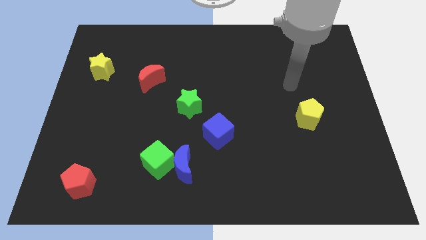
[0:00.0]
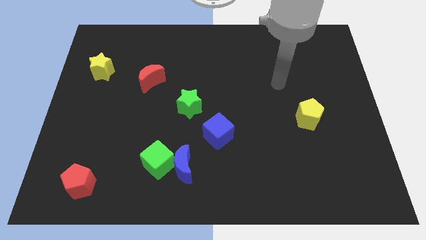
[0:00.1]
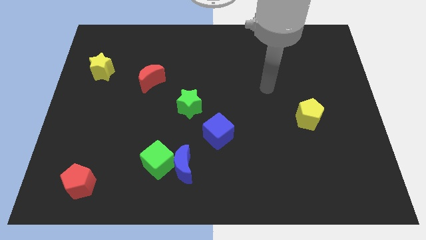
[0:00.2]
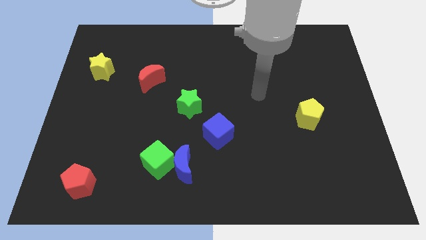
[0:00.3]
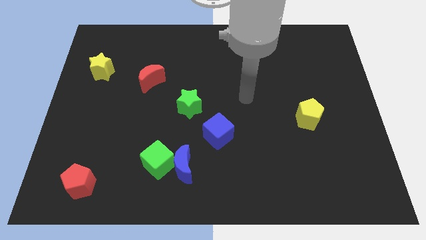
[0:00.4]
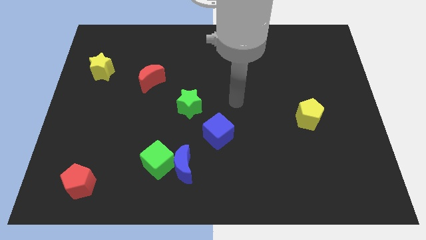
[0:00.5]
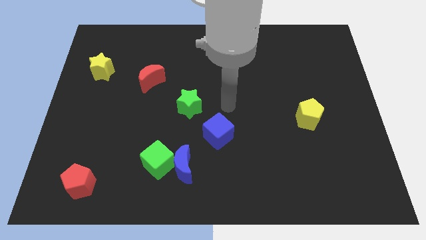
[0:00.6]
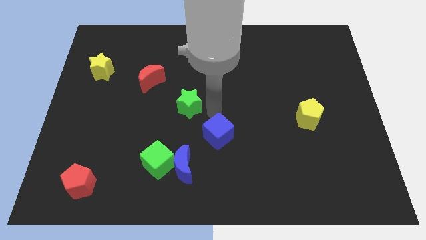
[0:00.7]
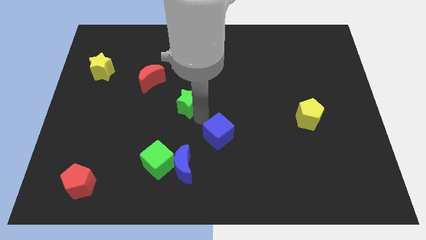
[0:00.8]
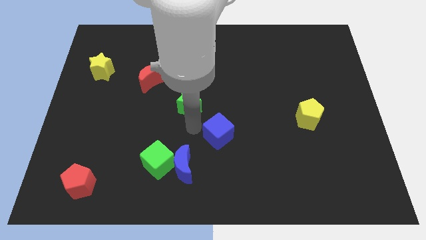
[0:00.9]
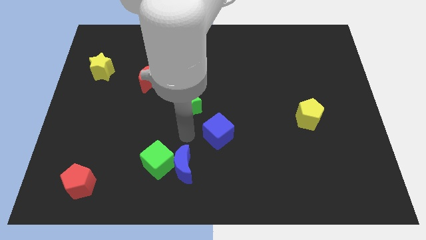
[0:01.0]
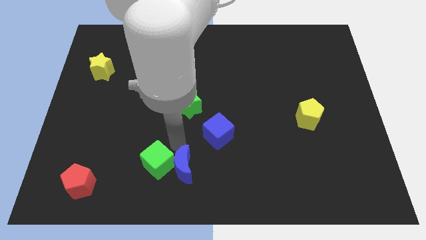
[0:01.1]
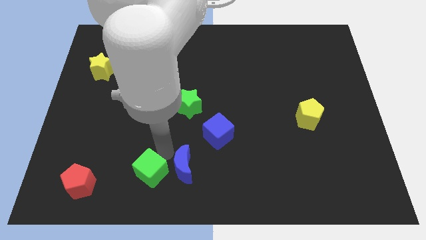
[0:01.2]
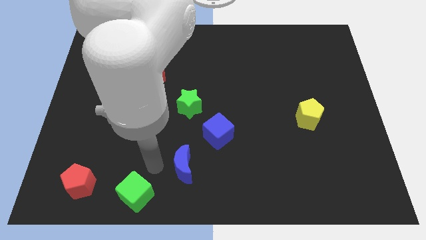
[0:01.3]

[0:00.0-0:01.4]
move the blue moon away from the green cube

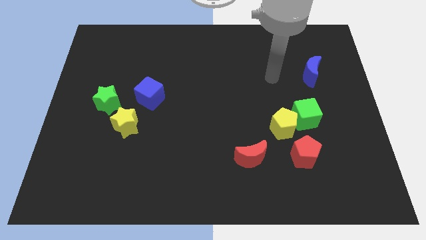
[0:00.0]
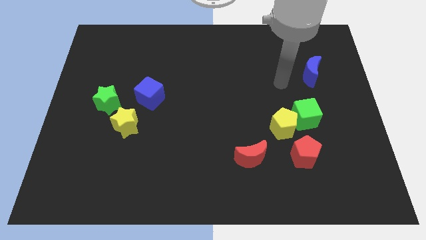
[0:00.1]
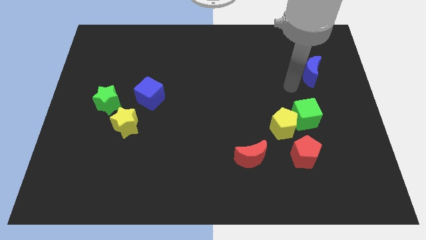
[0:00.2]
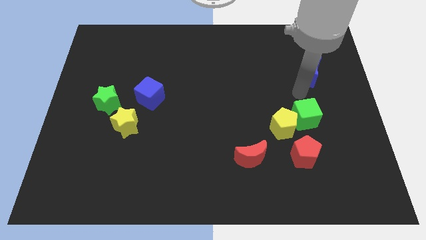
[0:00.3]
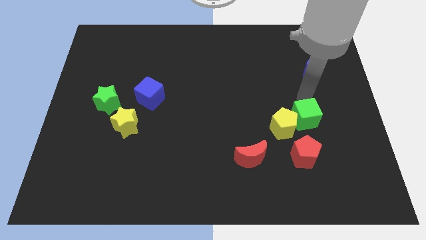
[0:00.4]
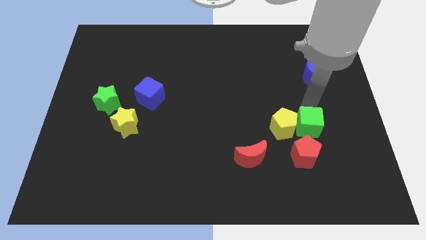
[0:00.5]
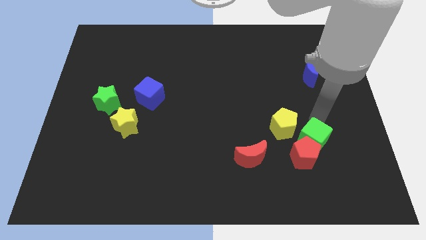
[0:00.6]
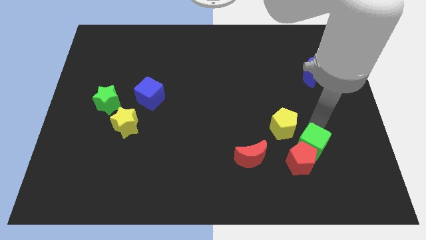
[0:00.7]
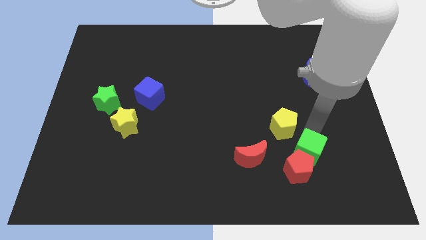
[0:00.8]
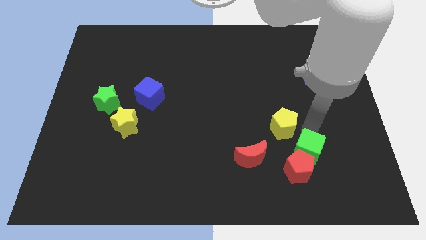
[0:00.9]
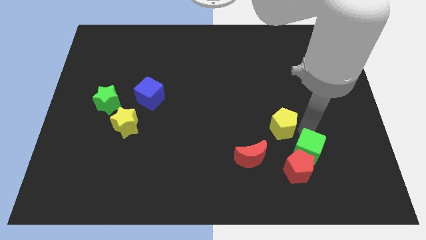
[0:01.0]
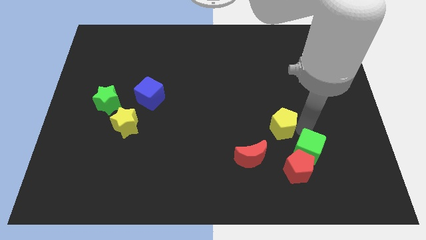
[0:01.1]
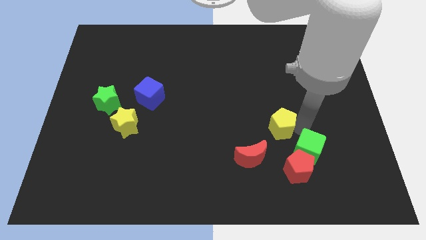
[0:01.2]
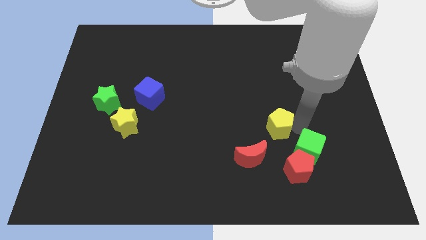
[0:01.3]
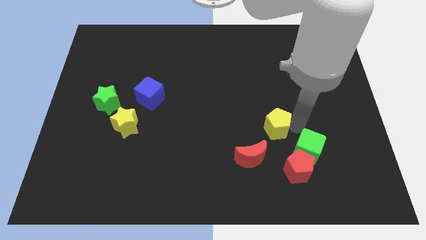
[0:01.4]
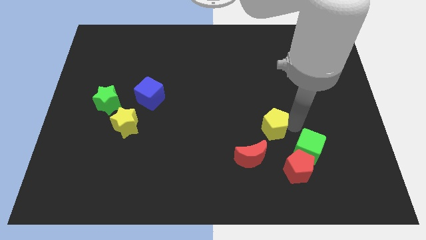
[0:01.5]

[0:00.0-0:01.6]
pull the yellow pentagon apart from the green cube and red pentagon

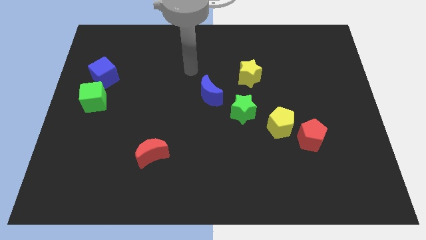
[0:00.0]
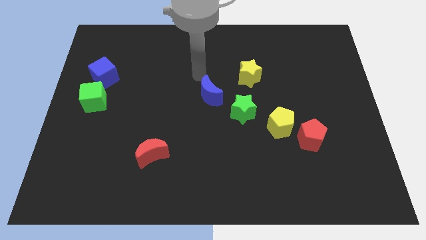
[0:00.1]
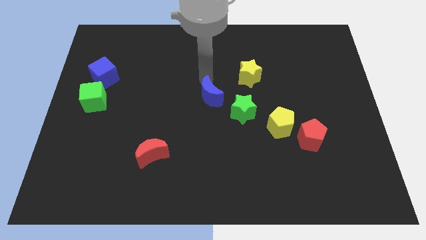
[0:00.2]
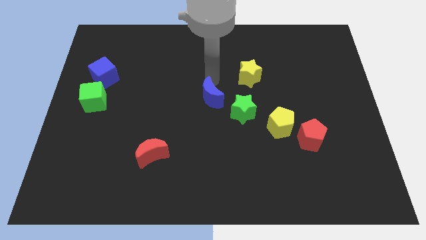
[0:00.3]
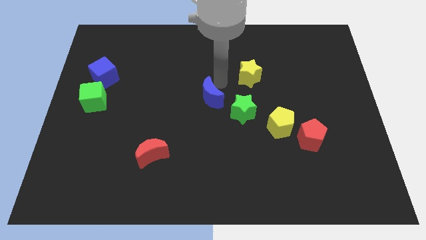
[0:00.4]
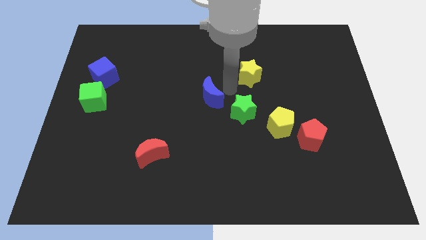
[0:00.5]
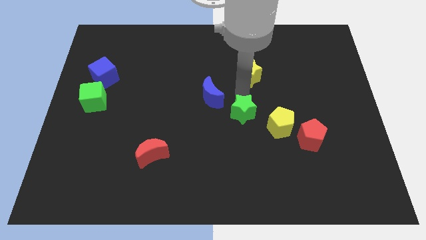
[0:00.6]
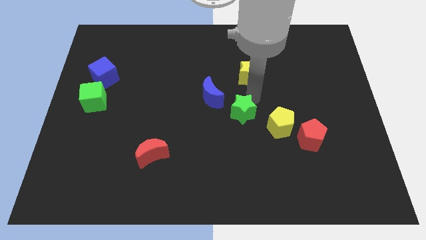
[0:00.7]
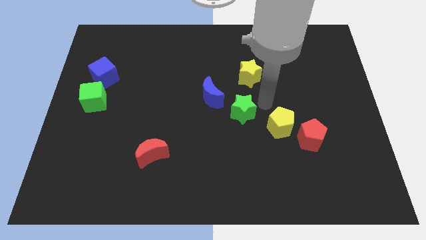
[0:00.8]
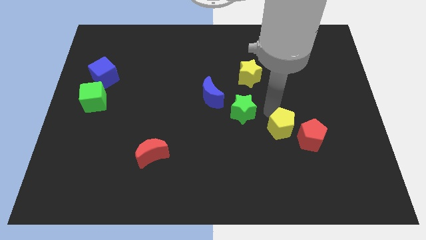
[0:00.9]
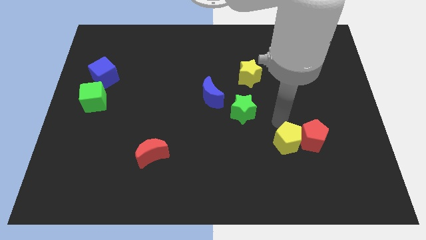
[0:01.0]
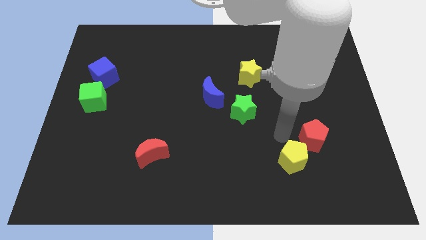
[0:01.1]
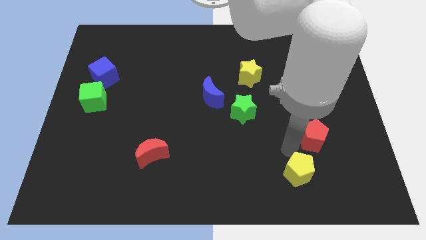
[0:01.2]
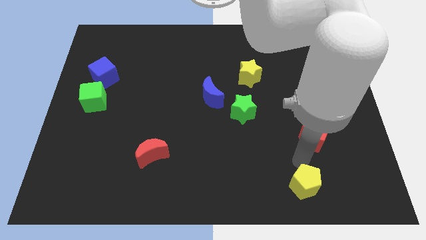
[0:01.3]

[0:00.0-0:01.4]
separate the red pentagon from the yellow pentagon

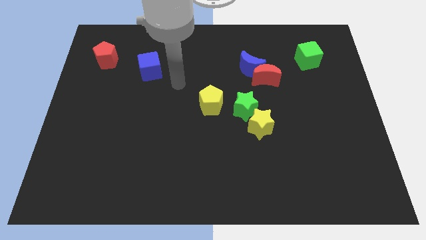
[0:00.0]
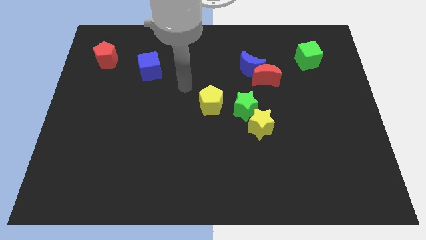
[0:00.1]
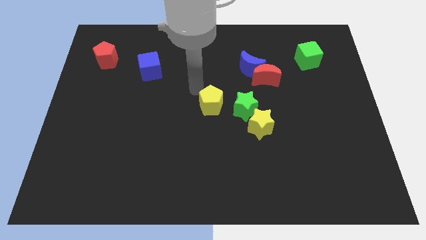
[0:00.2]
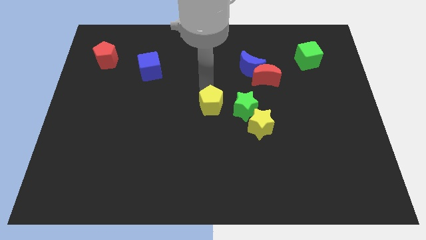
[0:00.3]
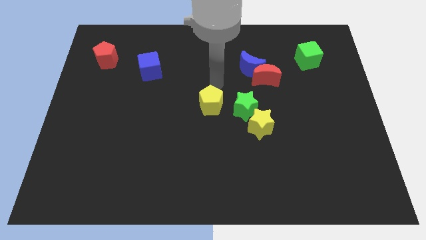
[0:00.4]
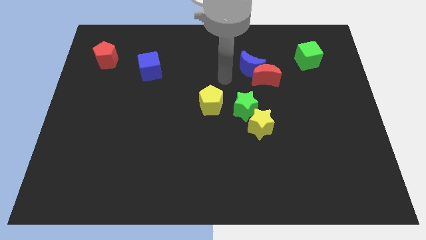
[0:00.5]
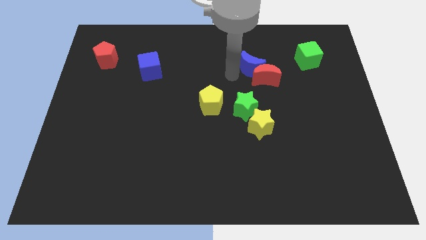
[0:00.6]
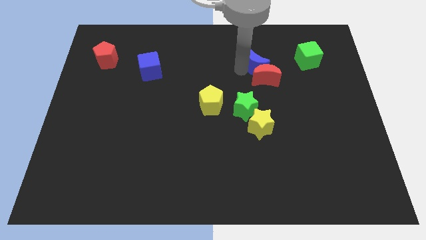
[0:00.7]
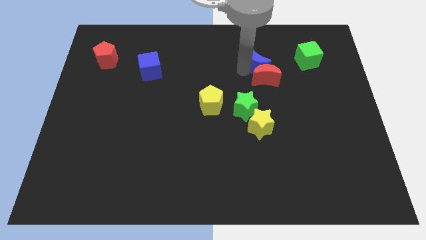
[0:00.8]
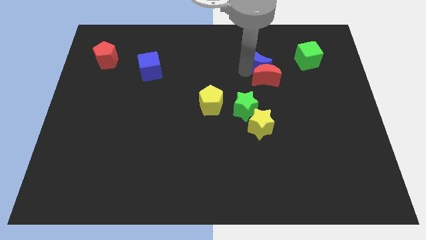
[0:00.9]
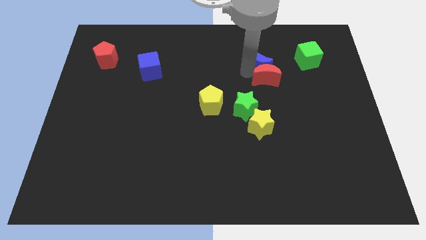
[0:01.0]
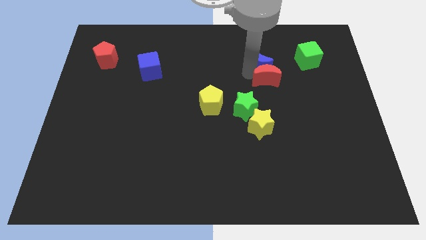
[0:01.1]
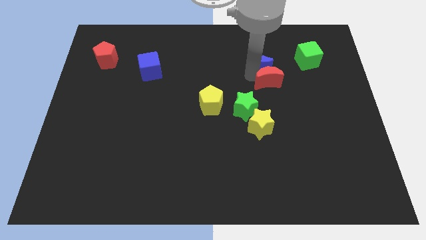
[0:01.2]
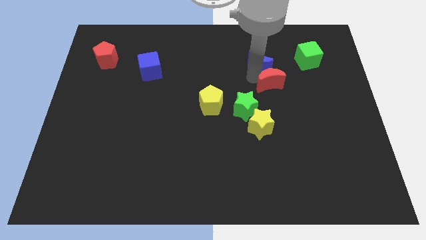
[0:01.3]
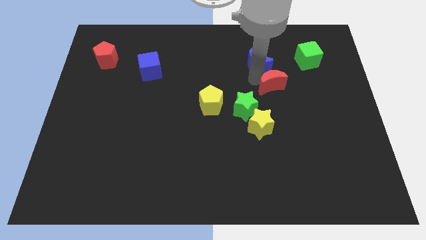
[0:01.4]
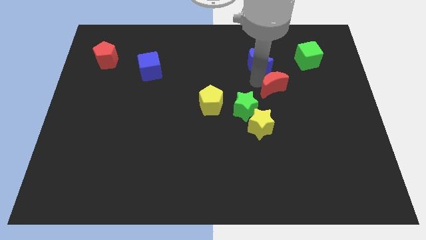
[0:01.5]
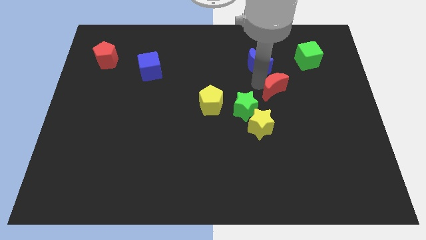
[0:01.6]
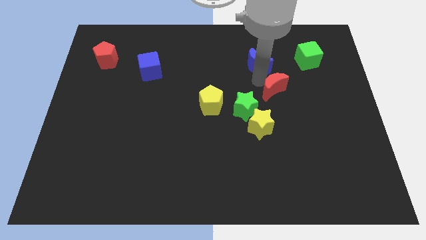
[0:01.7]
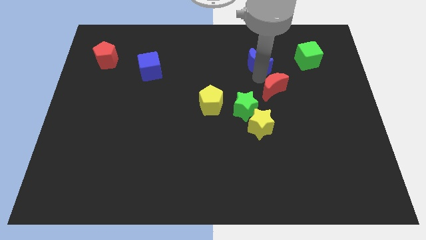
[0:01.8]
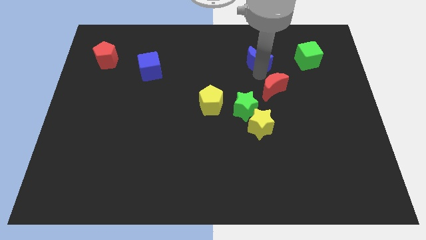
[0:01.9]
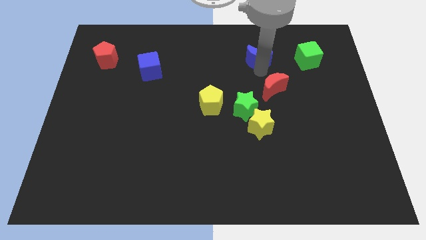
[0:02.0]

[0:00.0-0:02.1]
move the red moon away from the blue moon

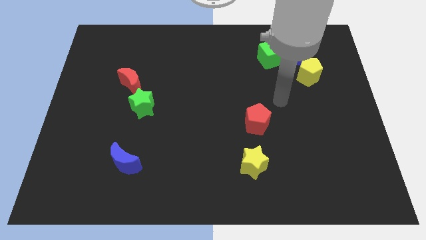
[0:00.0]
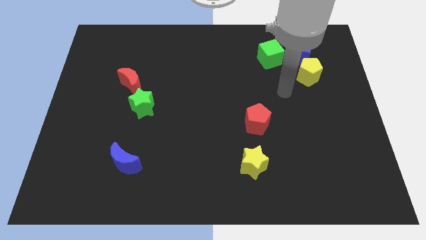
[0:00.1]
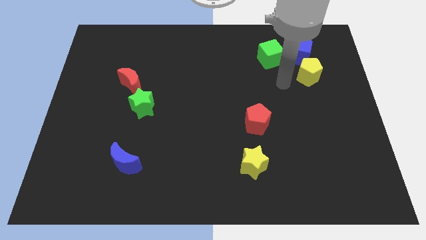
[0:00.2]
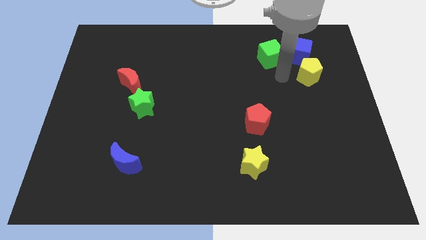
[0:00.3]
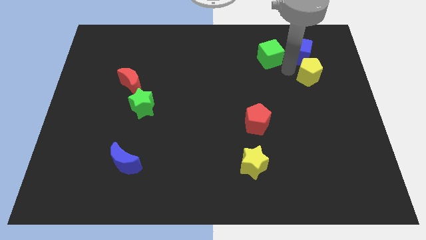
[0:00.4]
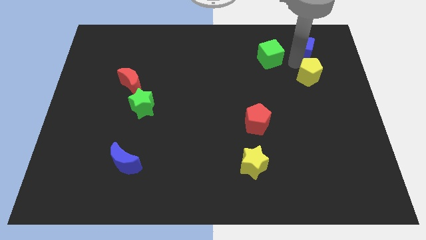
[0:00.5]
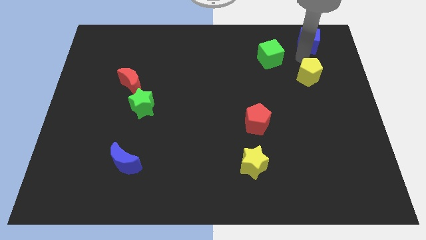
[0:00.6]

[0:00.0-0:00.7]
separate the yellow pentagon from the blue cube

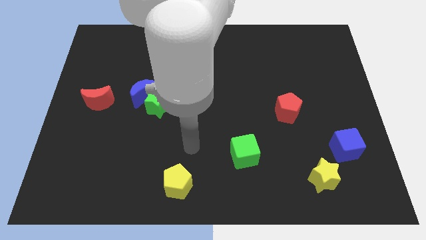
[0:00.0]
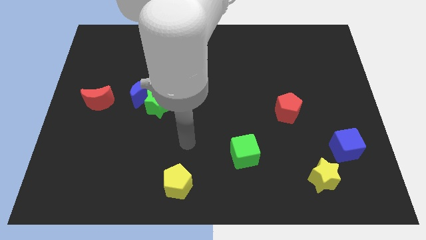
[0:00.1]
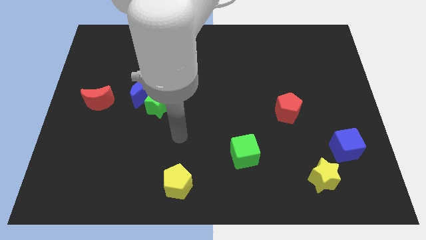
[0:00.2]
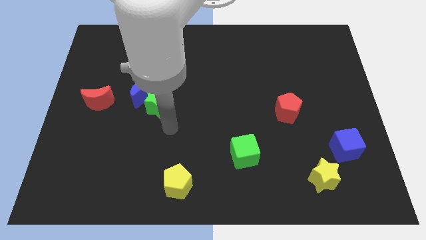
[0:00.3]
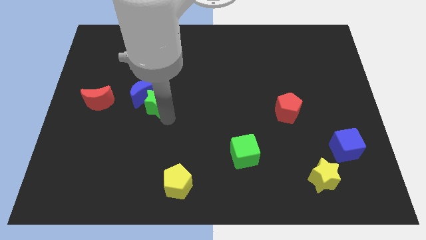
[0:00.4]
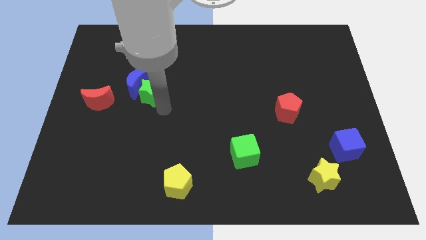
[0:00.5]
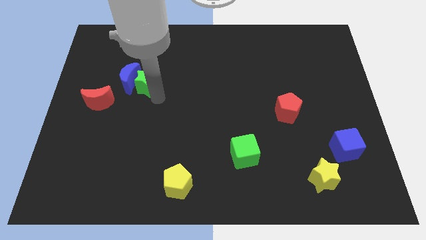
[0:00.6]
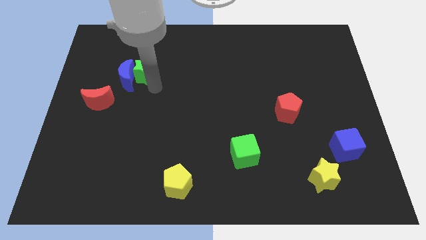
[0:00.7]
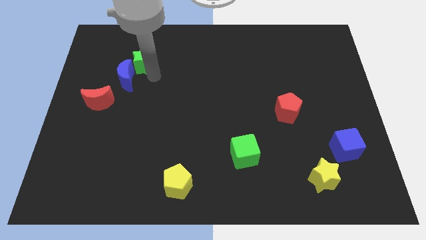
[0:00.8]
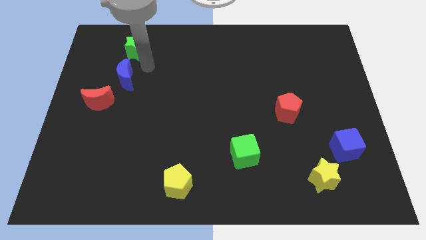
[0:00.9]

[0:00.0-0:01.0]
move the blue moon away from the green star

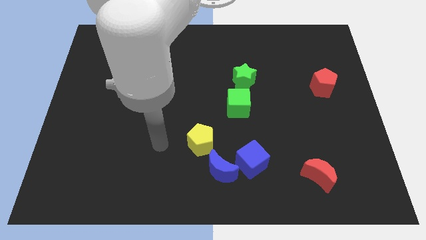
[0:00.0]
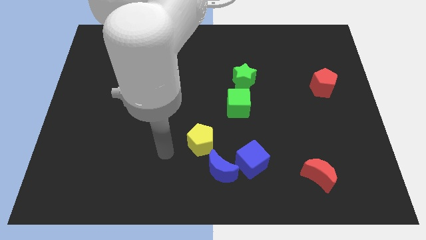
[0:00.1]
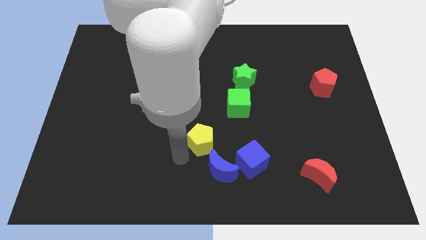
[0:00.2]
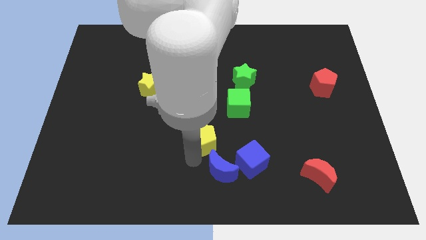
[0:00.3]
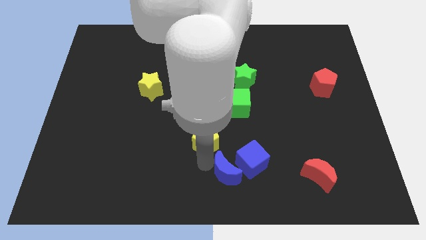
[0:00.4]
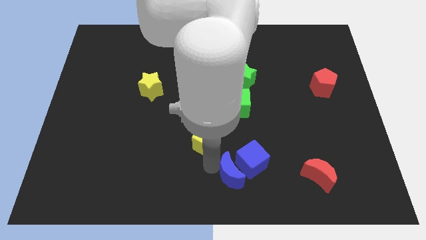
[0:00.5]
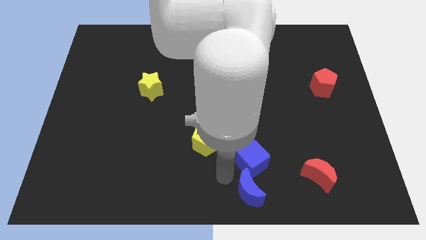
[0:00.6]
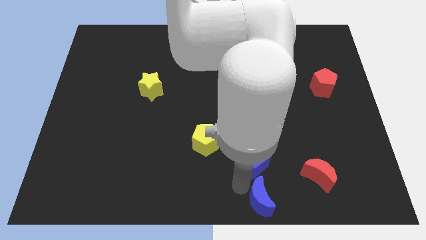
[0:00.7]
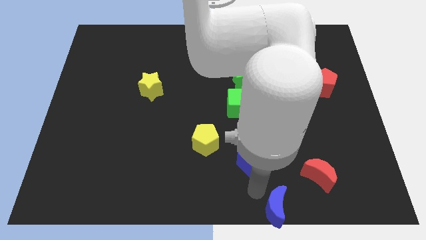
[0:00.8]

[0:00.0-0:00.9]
separate the blue cube from the blue moon
